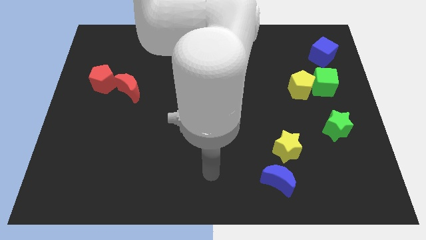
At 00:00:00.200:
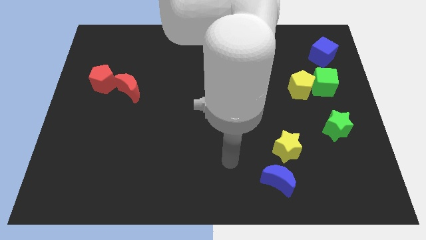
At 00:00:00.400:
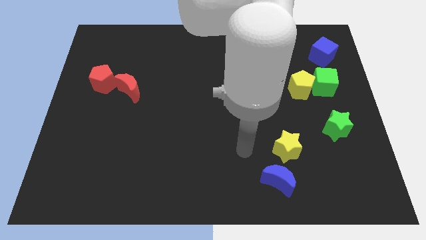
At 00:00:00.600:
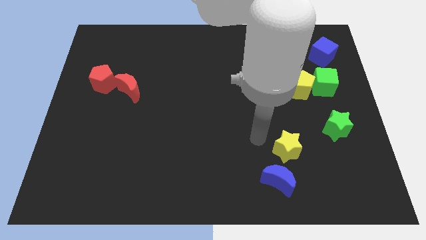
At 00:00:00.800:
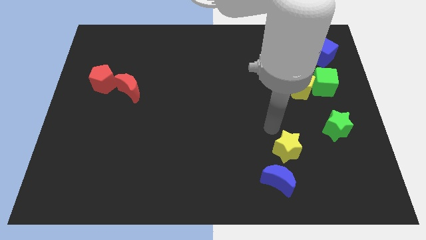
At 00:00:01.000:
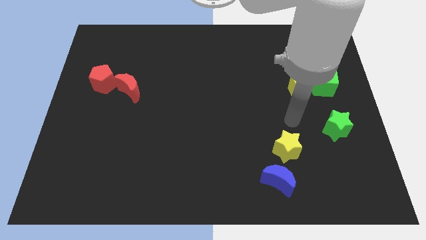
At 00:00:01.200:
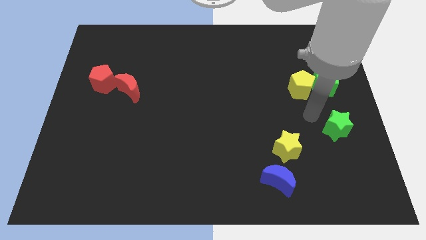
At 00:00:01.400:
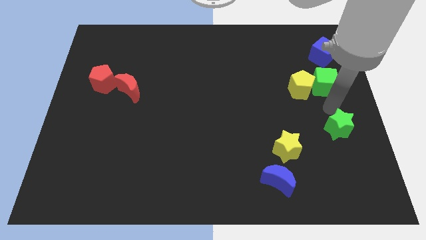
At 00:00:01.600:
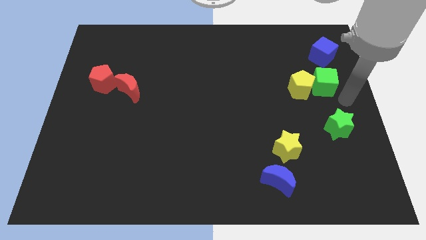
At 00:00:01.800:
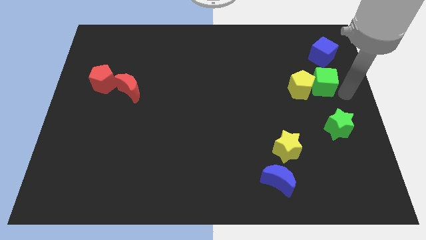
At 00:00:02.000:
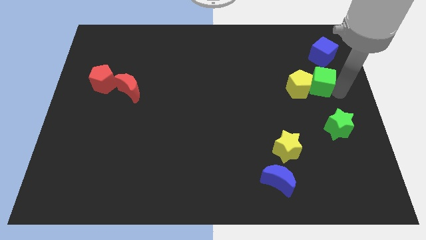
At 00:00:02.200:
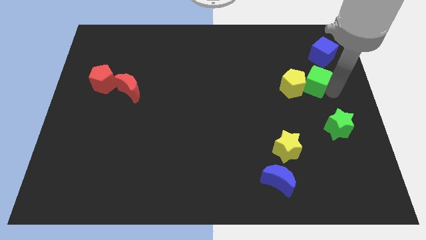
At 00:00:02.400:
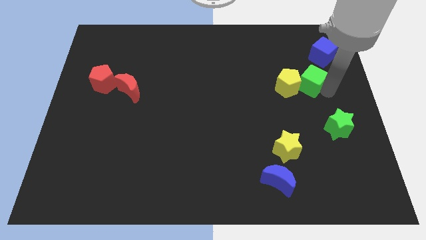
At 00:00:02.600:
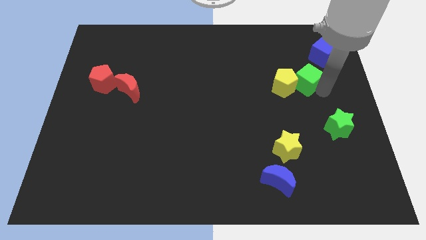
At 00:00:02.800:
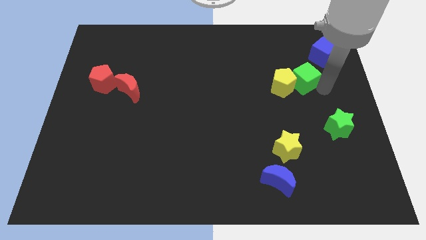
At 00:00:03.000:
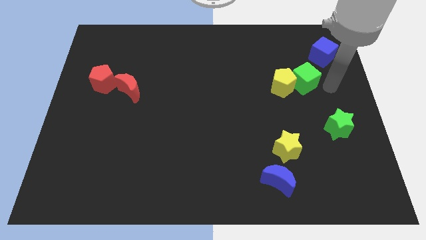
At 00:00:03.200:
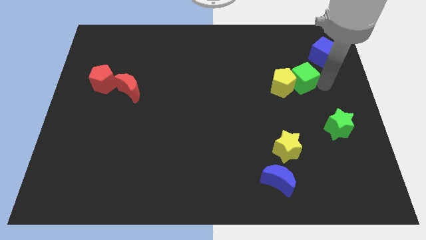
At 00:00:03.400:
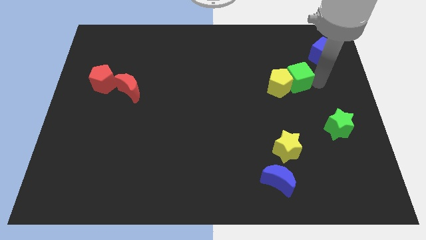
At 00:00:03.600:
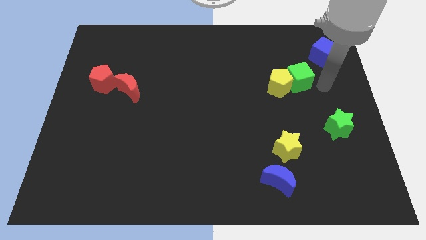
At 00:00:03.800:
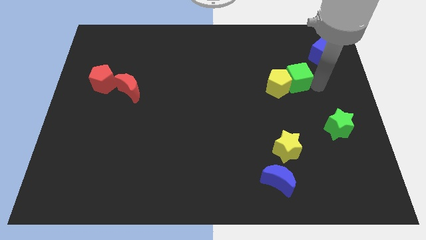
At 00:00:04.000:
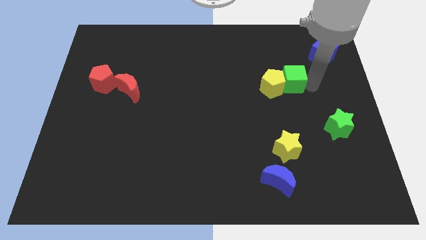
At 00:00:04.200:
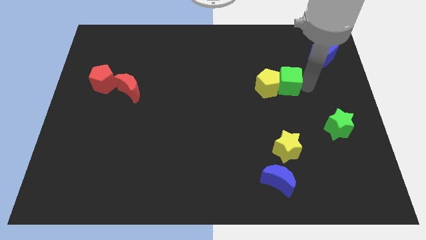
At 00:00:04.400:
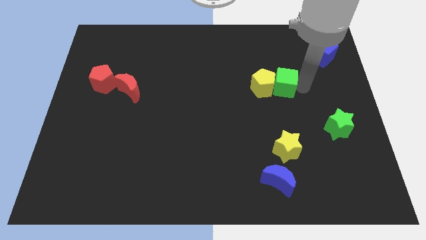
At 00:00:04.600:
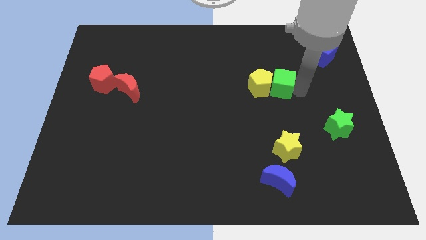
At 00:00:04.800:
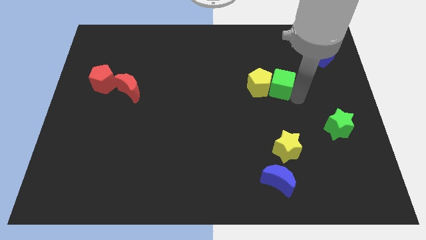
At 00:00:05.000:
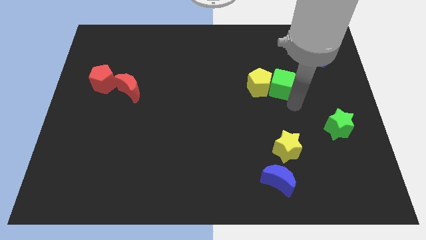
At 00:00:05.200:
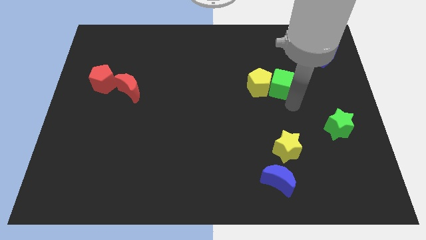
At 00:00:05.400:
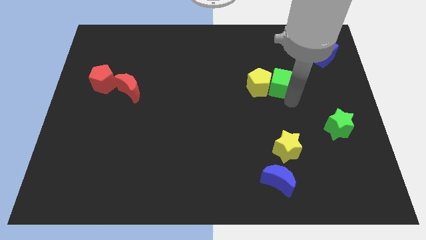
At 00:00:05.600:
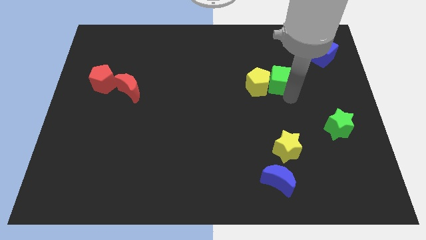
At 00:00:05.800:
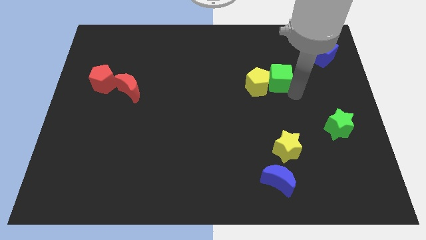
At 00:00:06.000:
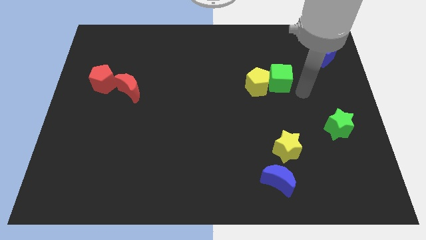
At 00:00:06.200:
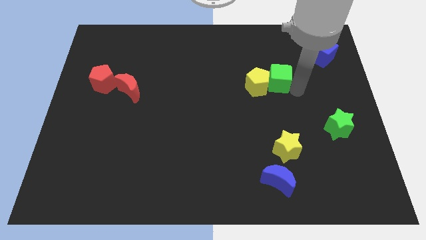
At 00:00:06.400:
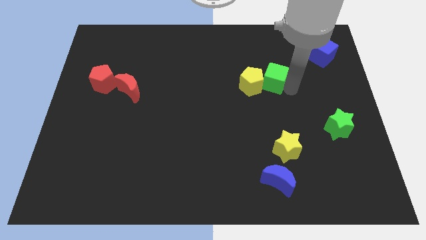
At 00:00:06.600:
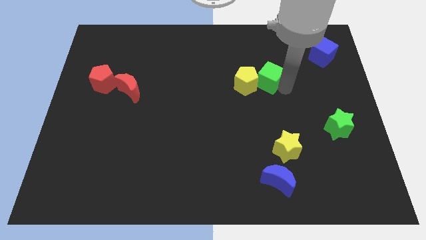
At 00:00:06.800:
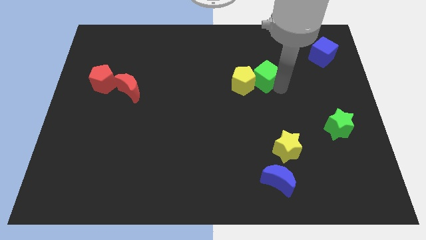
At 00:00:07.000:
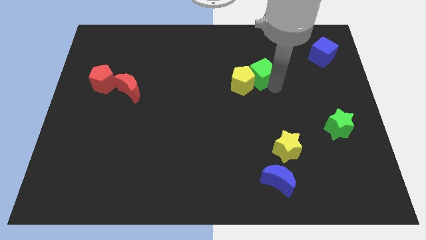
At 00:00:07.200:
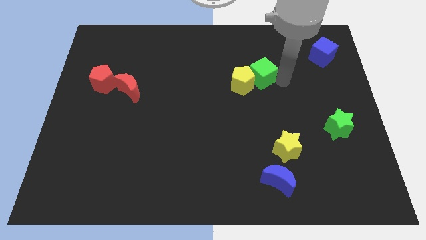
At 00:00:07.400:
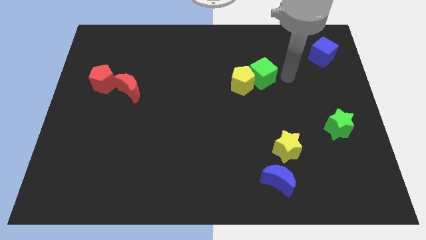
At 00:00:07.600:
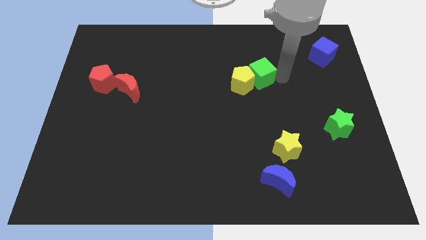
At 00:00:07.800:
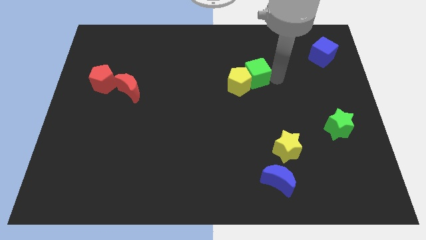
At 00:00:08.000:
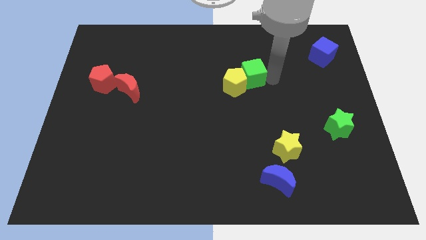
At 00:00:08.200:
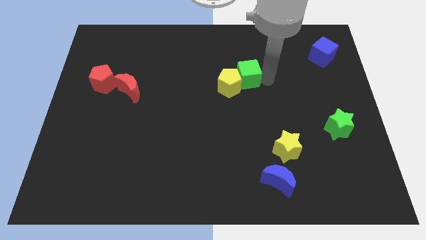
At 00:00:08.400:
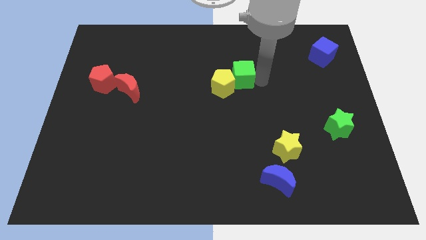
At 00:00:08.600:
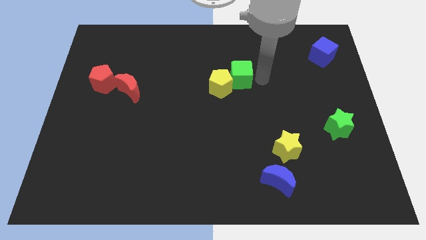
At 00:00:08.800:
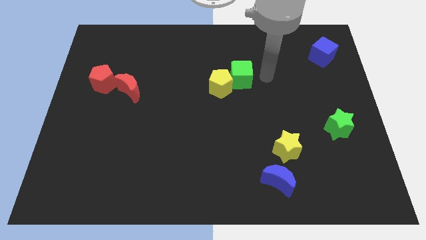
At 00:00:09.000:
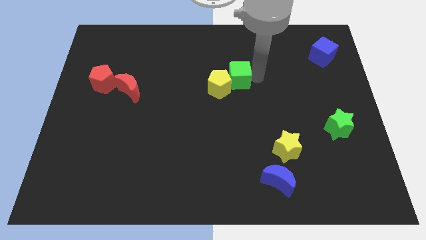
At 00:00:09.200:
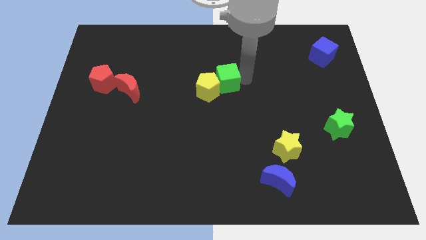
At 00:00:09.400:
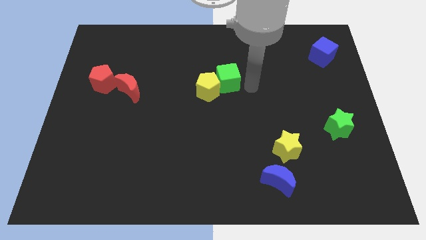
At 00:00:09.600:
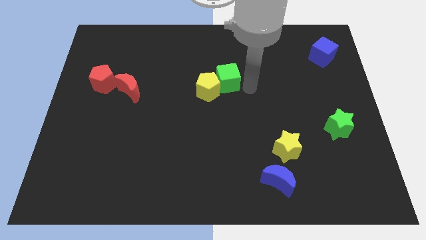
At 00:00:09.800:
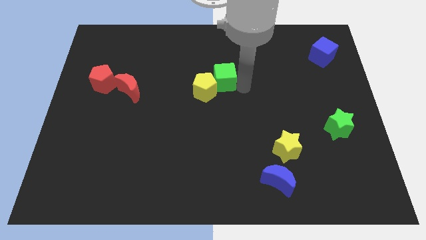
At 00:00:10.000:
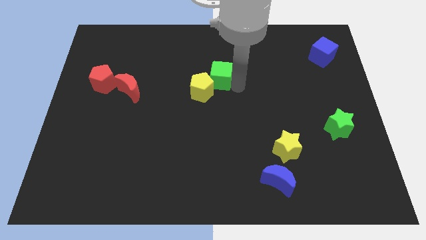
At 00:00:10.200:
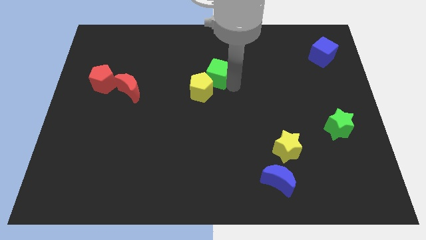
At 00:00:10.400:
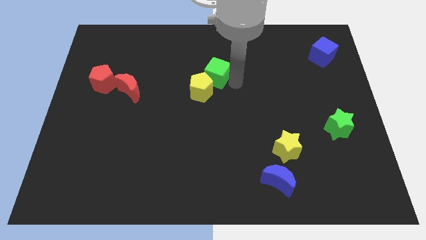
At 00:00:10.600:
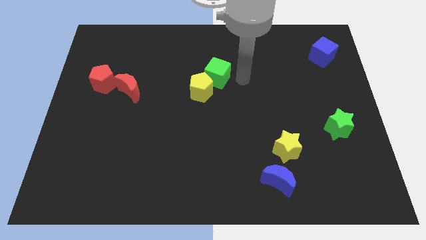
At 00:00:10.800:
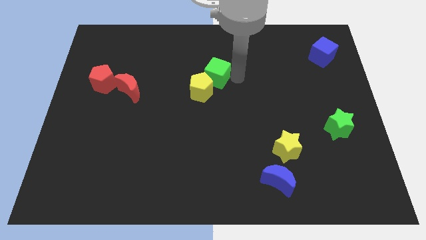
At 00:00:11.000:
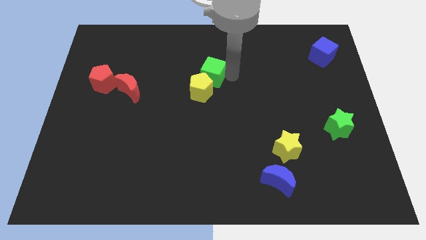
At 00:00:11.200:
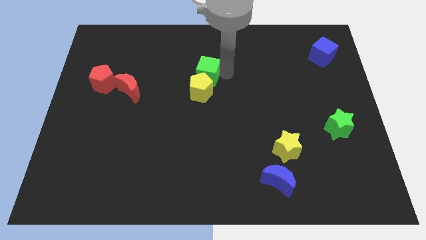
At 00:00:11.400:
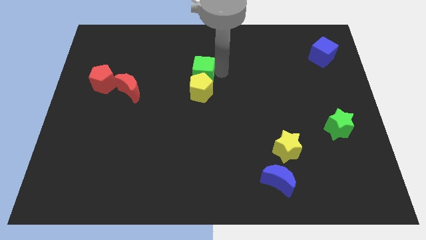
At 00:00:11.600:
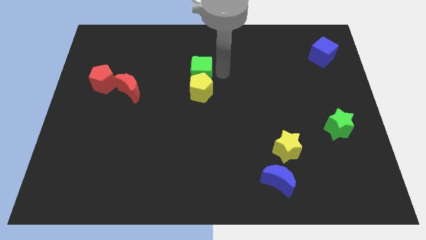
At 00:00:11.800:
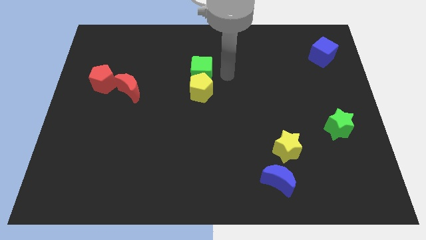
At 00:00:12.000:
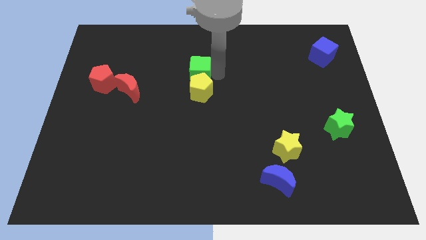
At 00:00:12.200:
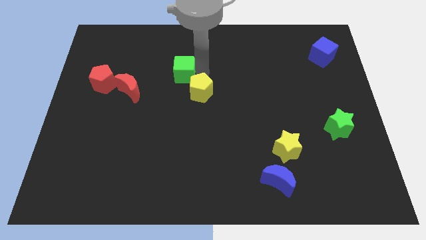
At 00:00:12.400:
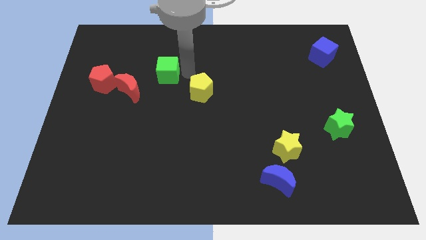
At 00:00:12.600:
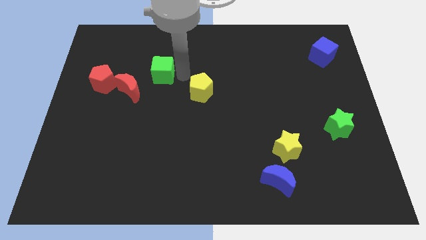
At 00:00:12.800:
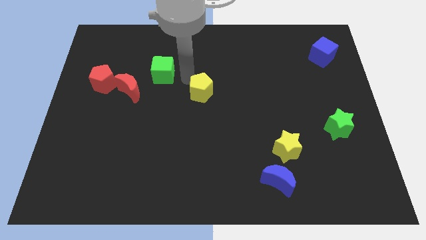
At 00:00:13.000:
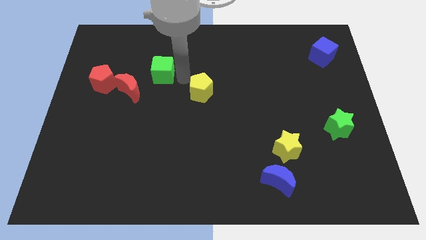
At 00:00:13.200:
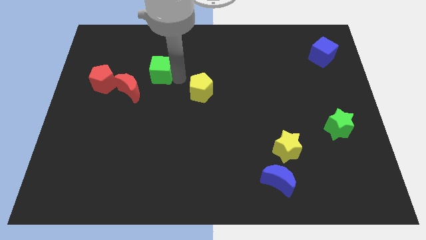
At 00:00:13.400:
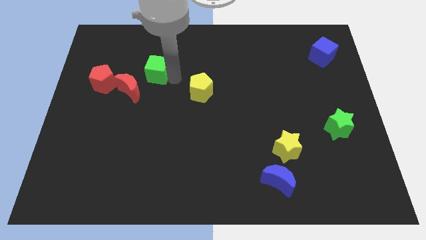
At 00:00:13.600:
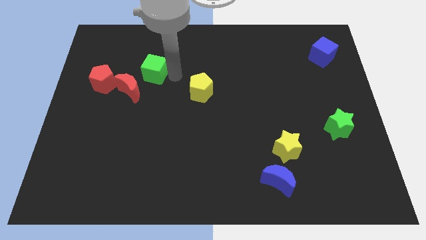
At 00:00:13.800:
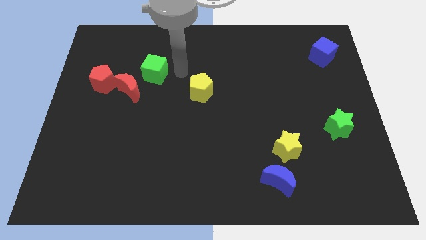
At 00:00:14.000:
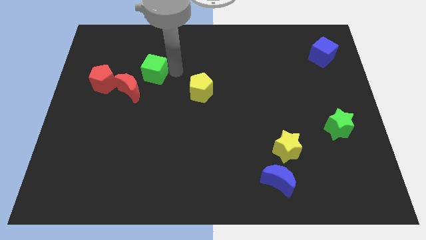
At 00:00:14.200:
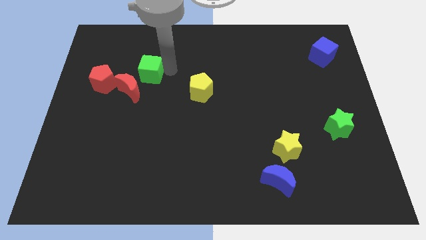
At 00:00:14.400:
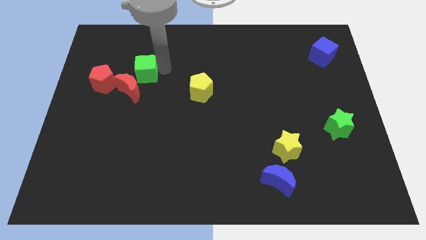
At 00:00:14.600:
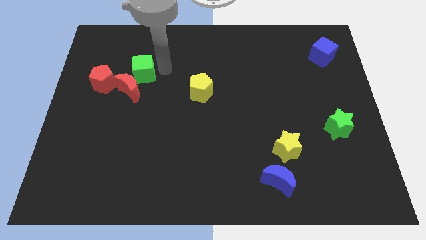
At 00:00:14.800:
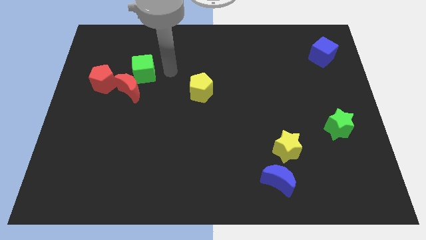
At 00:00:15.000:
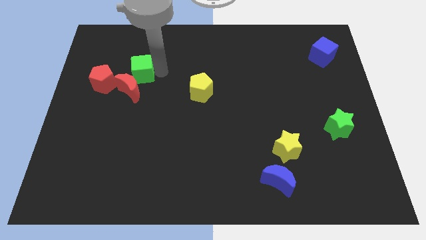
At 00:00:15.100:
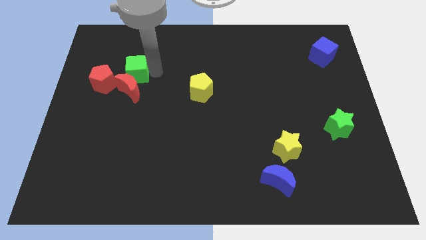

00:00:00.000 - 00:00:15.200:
put the green cube diagonally up and to the left of the red moon
